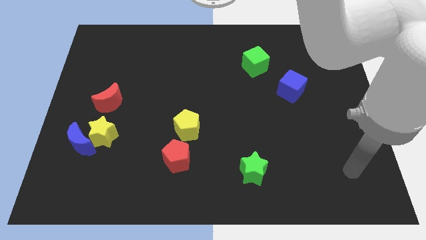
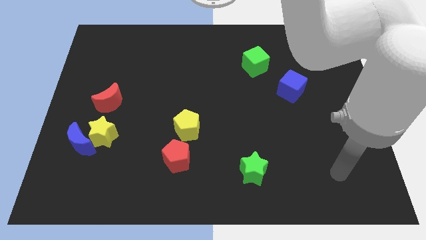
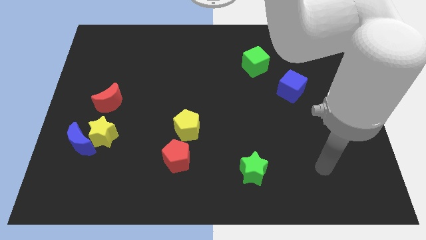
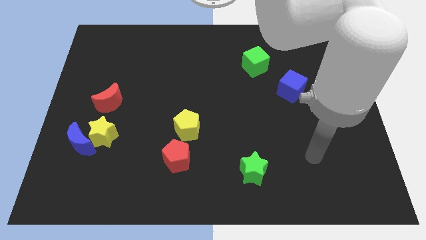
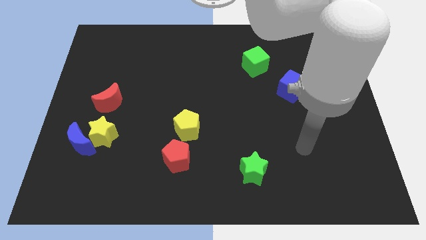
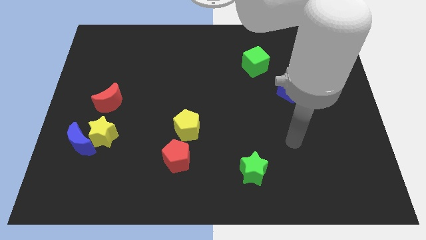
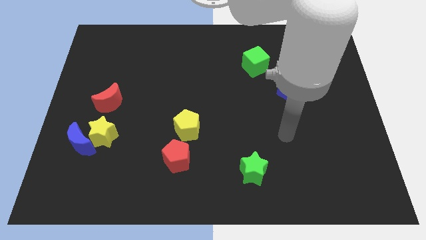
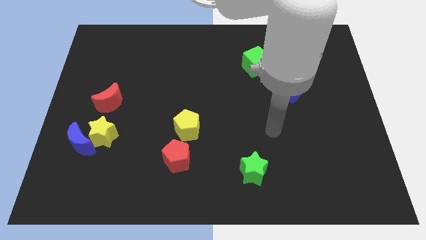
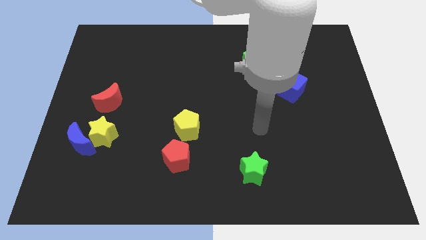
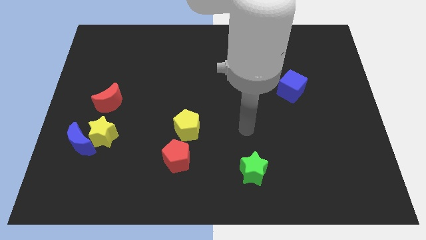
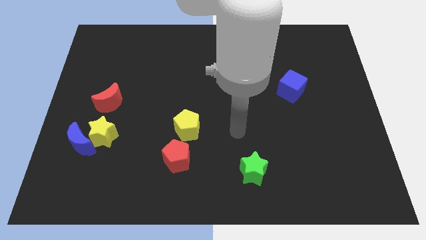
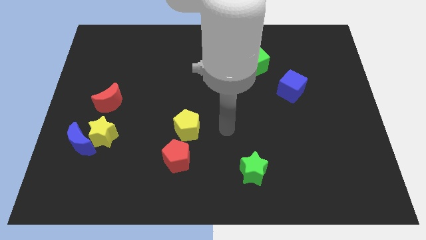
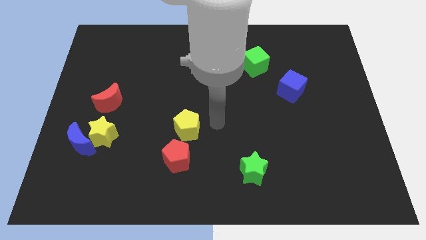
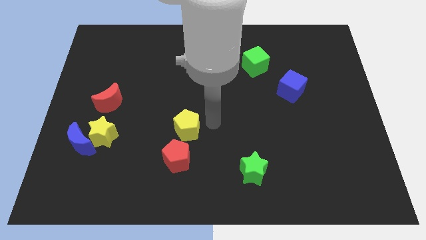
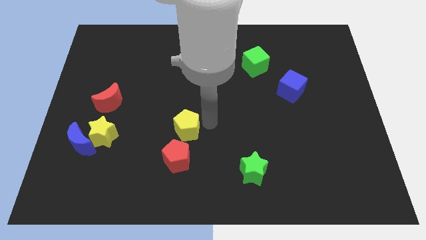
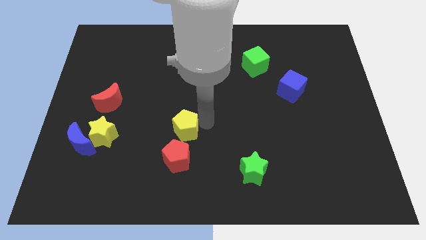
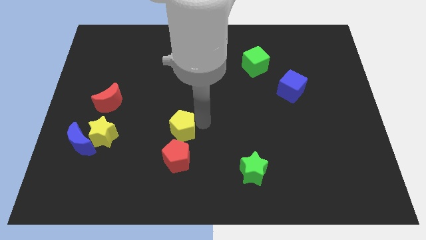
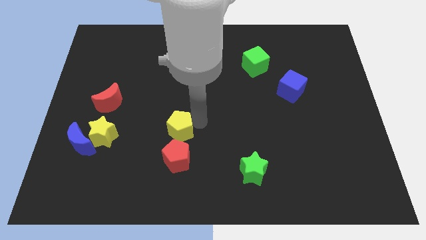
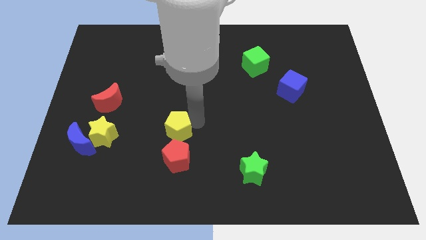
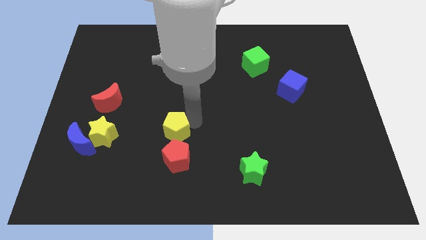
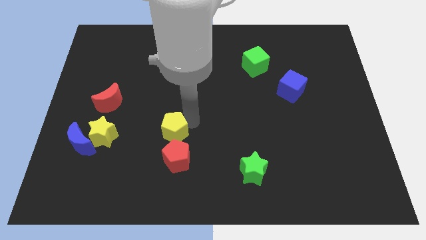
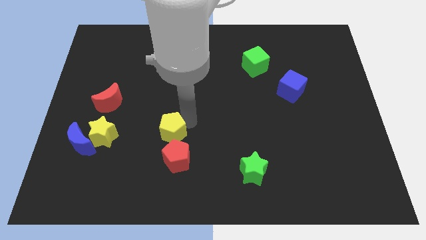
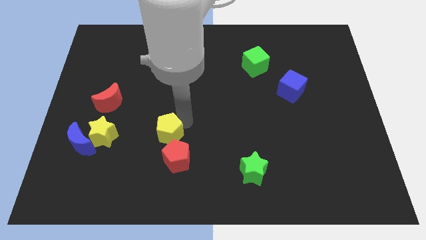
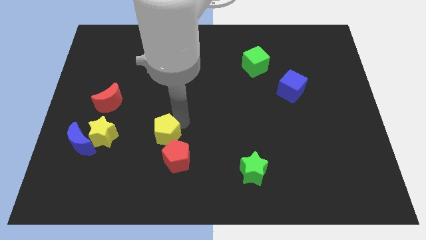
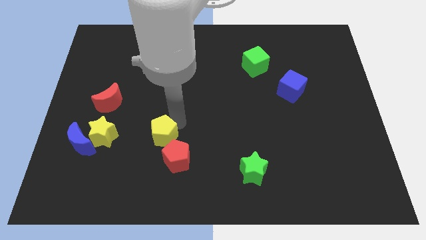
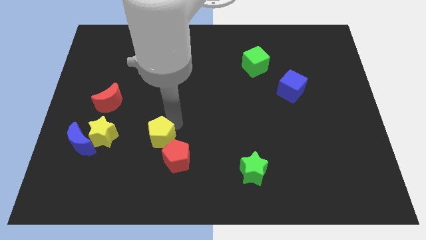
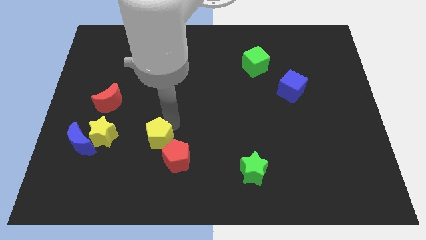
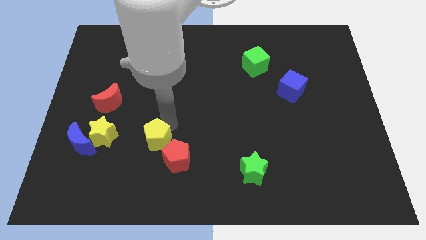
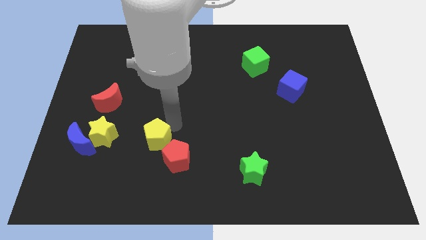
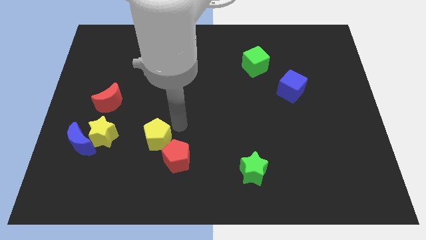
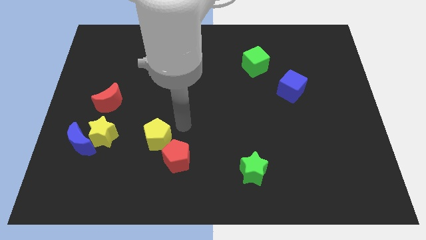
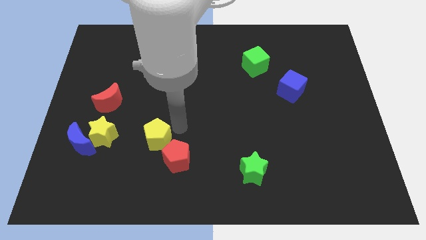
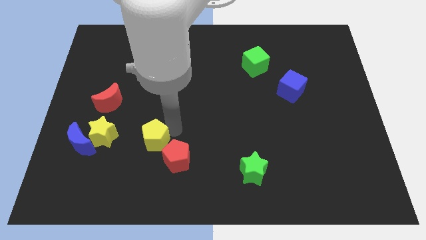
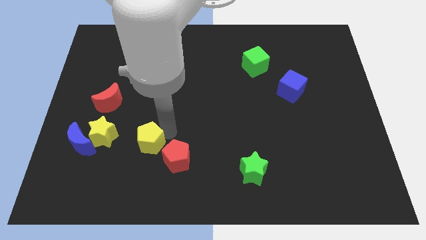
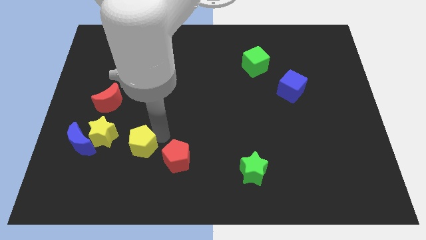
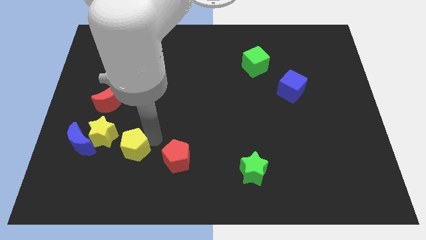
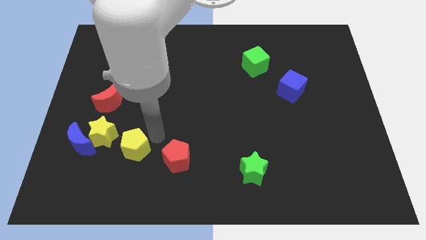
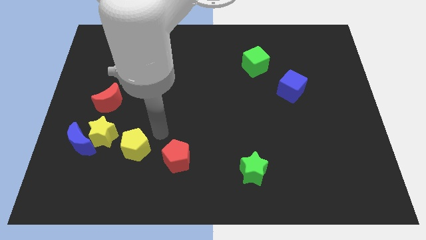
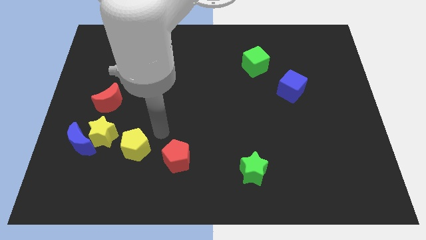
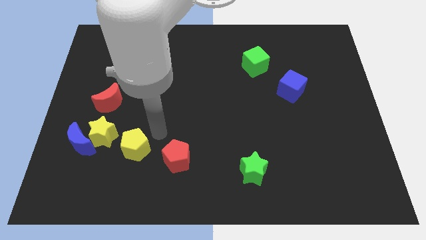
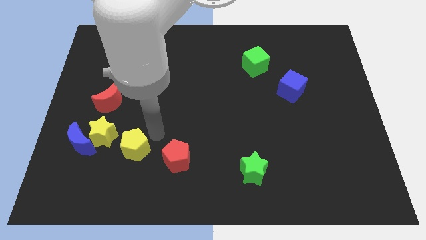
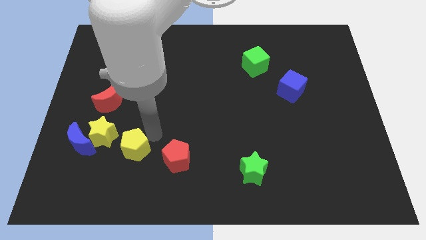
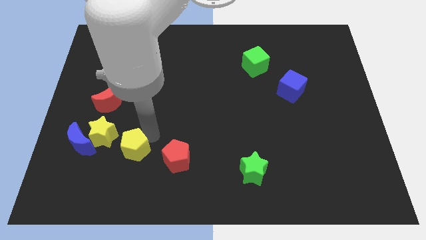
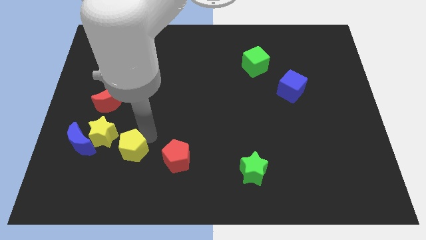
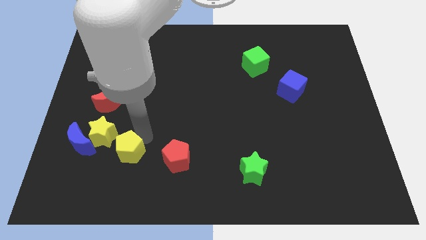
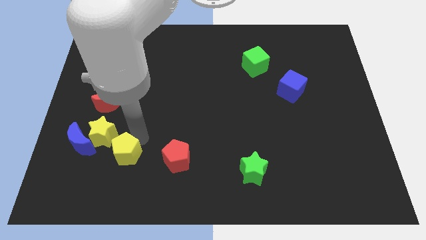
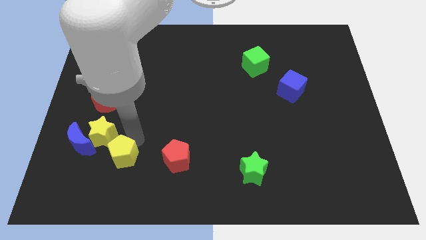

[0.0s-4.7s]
slide the yellow pentagon to the bottom of the yellow star

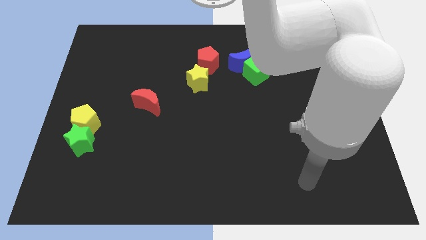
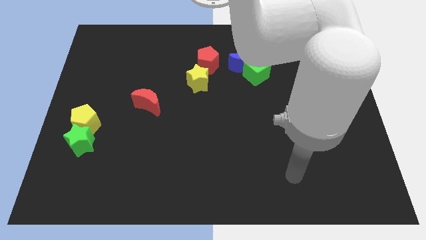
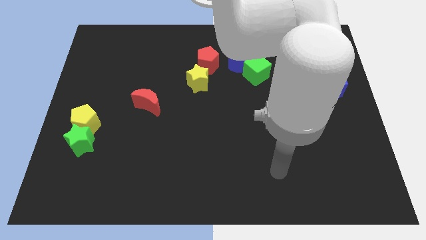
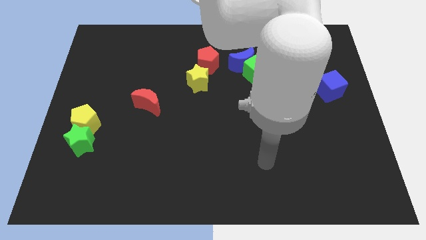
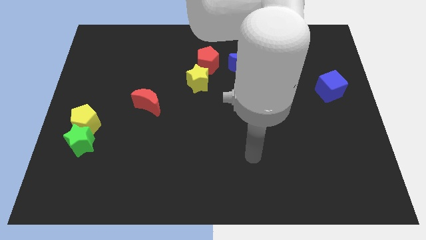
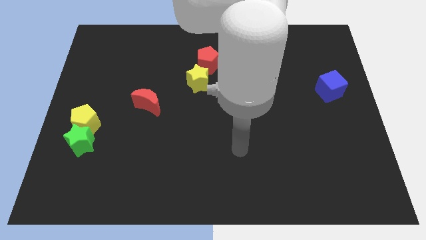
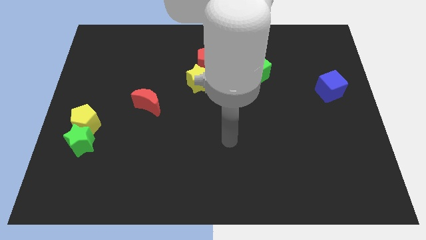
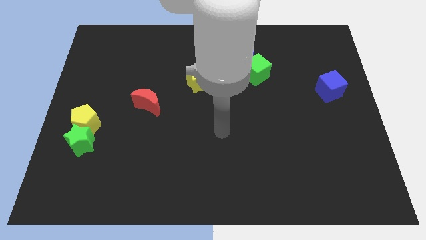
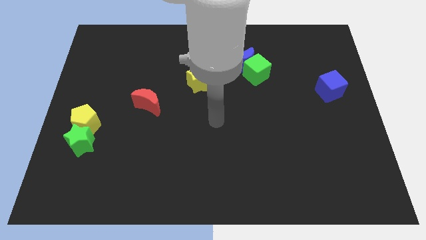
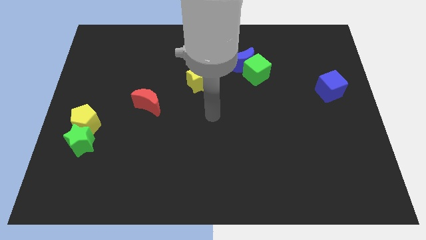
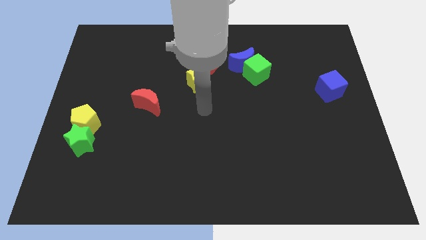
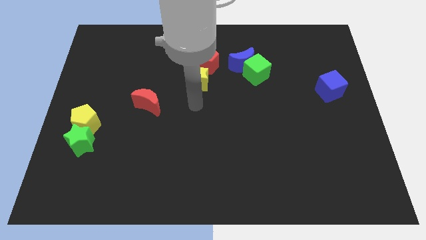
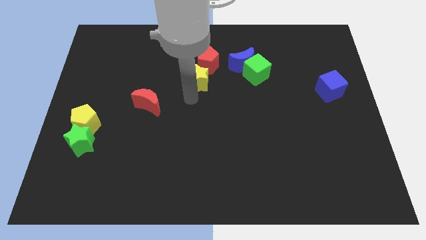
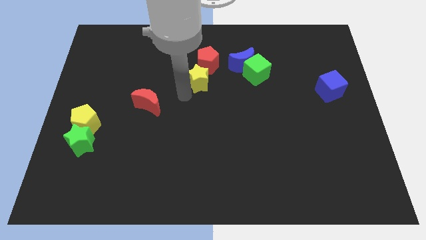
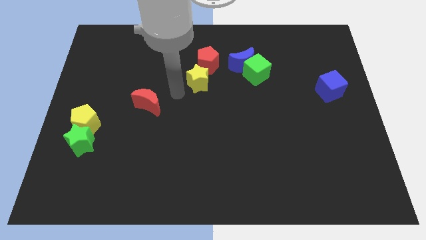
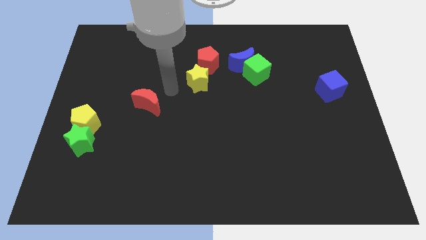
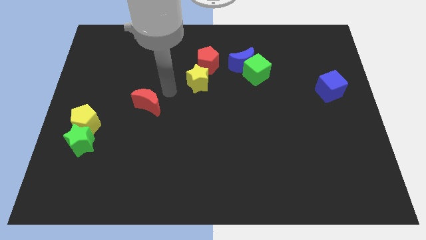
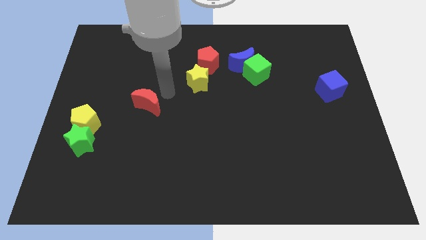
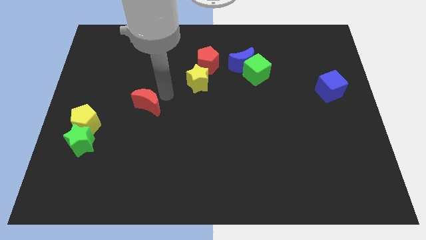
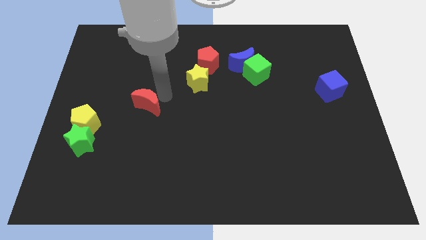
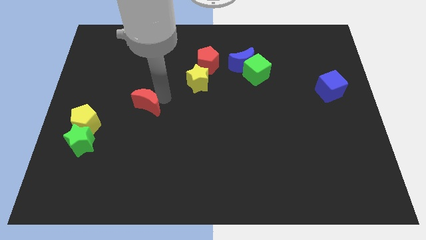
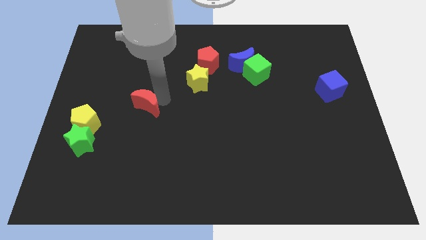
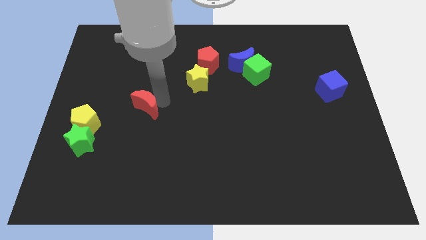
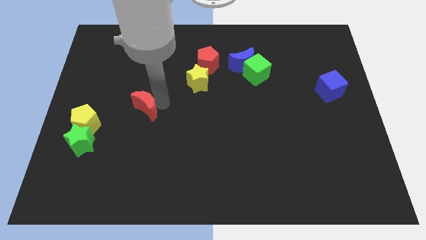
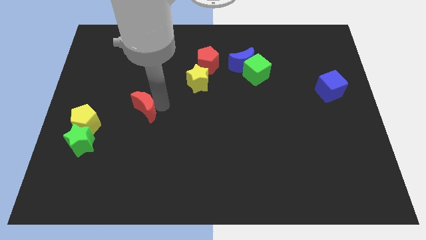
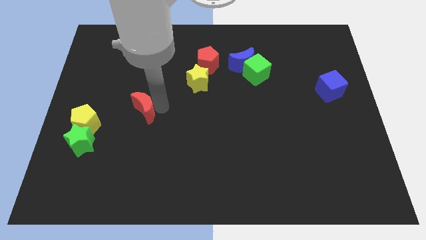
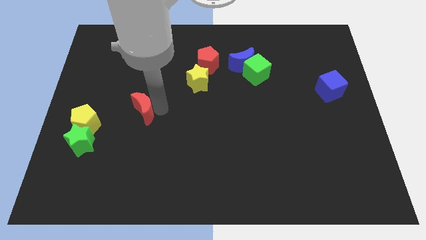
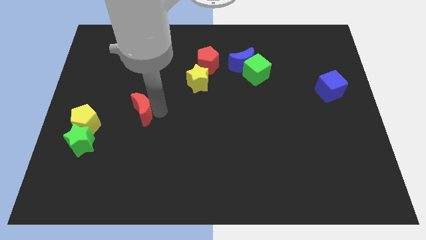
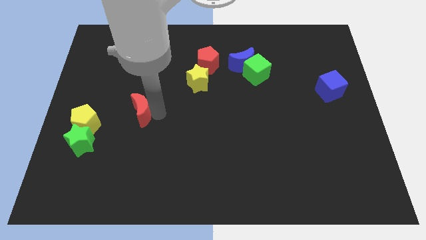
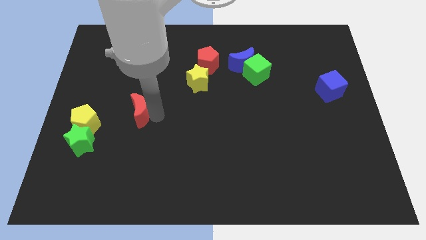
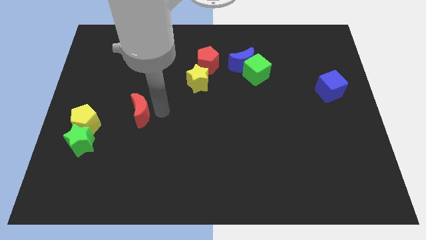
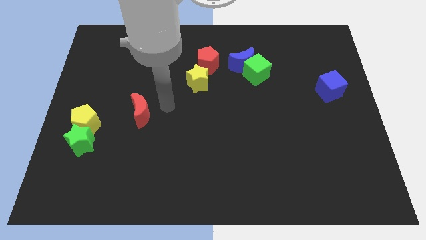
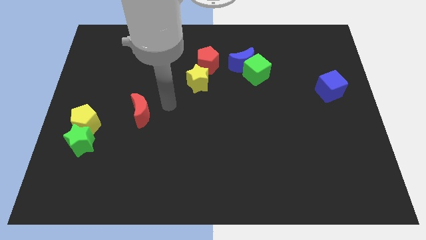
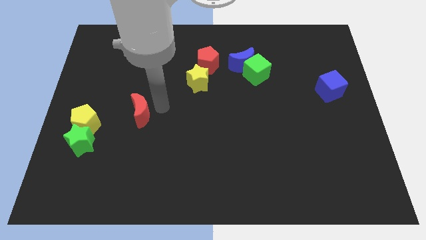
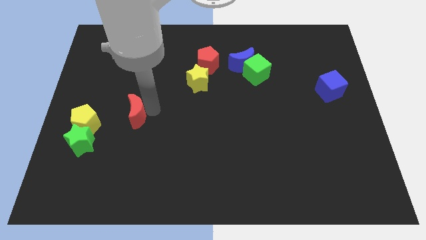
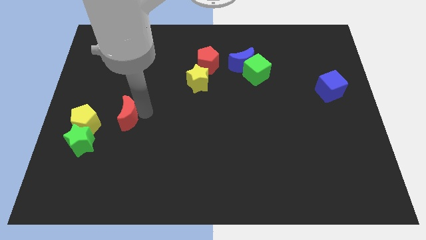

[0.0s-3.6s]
move the red moon diagonally up and to the right of the green star
